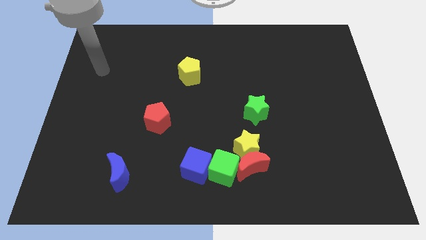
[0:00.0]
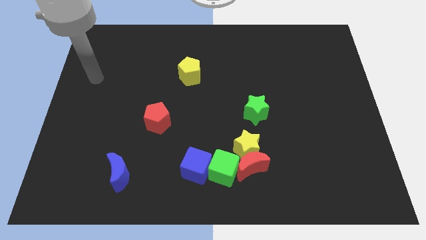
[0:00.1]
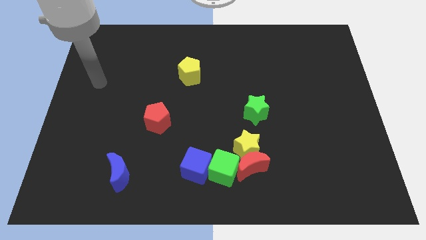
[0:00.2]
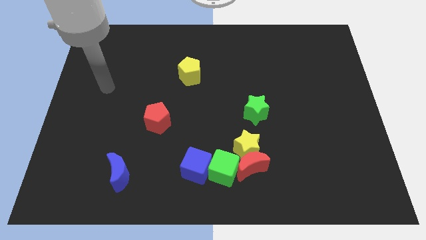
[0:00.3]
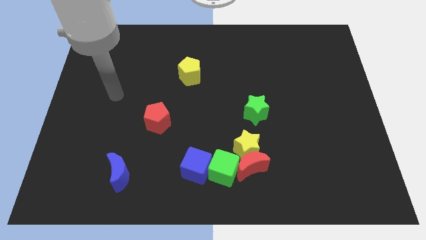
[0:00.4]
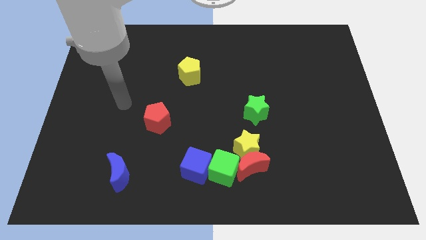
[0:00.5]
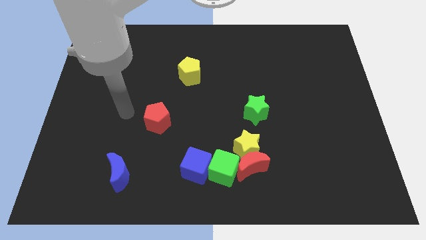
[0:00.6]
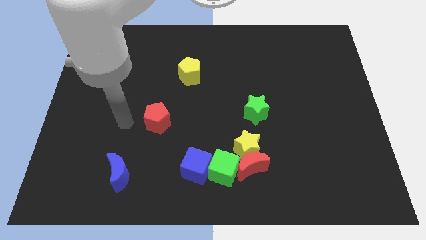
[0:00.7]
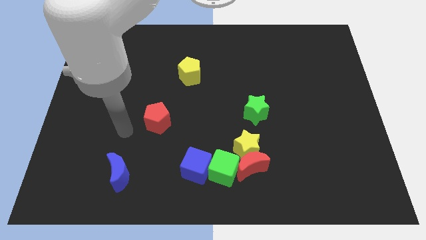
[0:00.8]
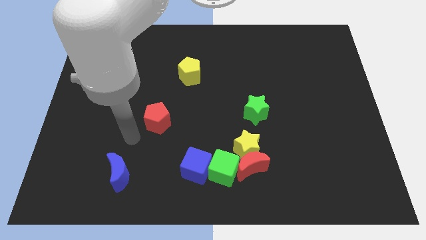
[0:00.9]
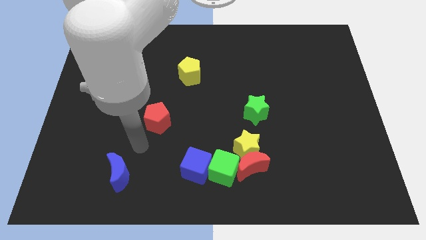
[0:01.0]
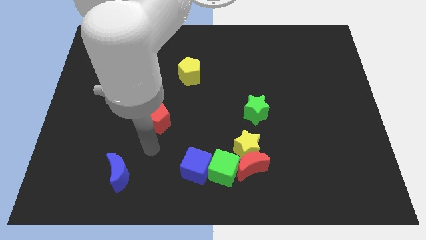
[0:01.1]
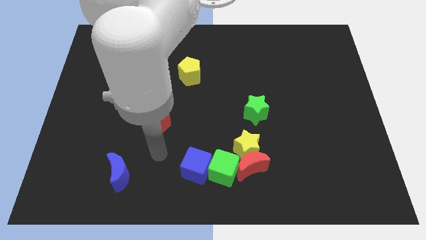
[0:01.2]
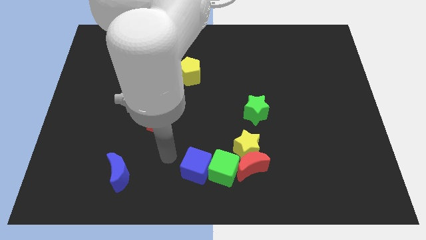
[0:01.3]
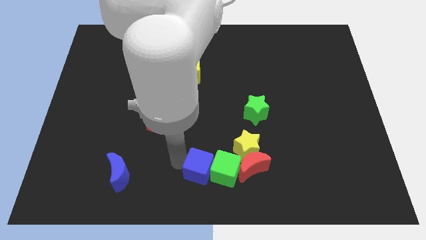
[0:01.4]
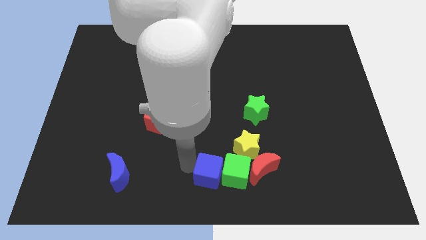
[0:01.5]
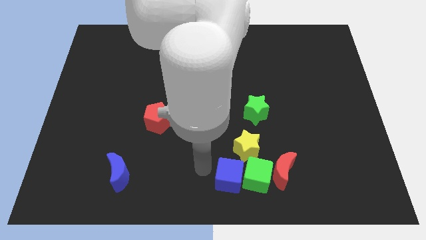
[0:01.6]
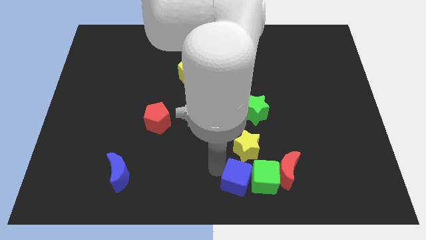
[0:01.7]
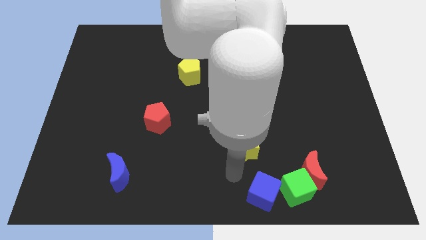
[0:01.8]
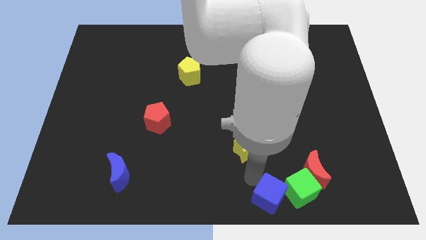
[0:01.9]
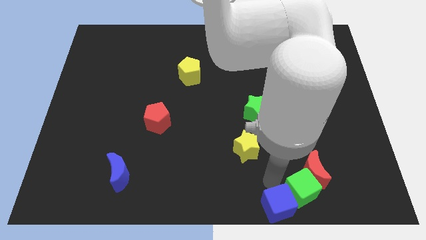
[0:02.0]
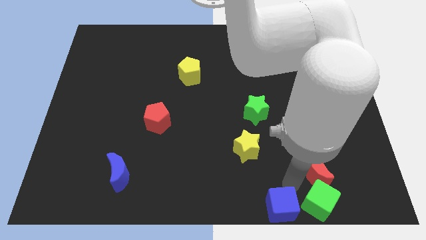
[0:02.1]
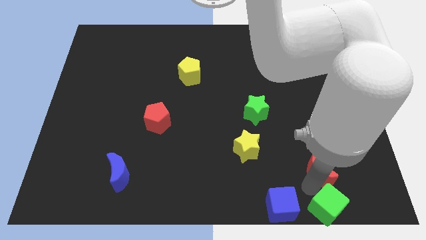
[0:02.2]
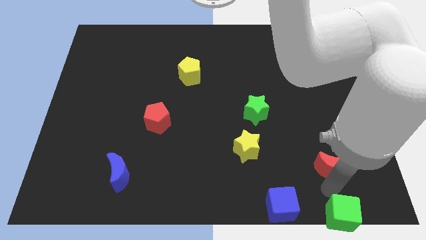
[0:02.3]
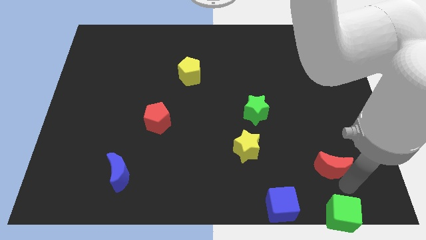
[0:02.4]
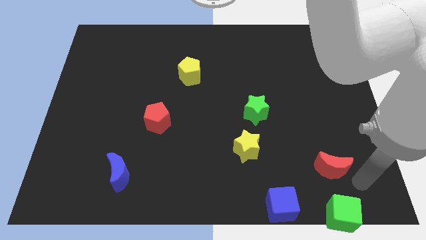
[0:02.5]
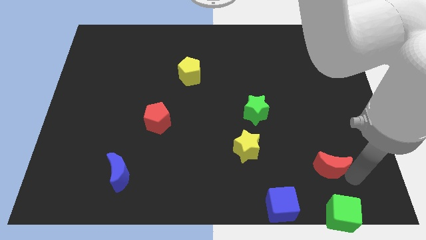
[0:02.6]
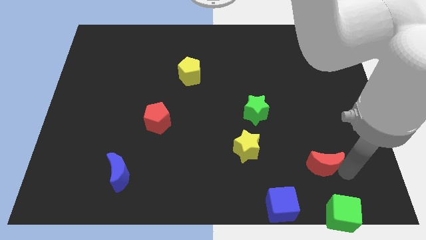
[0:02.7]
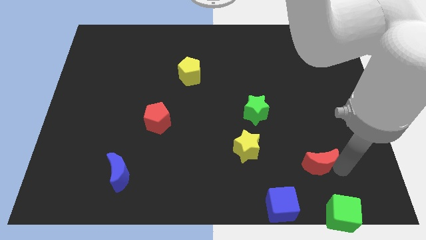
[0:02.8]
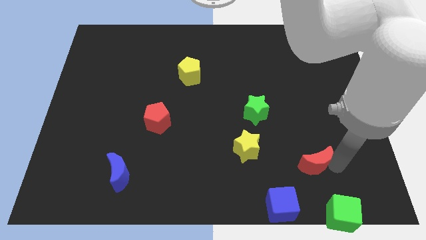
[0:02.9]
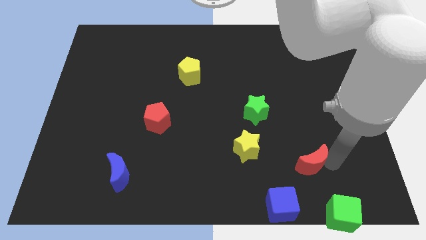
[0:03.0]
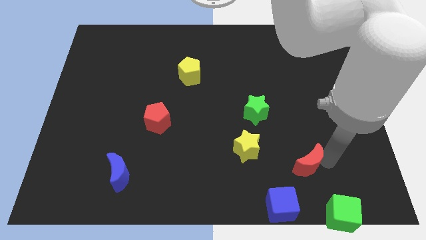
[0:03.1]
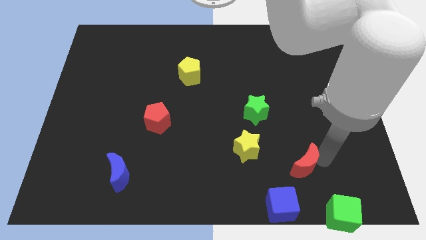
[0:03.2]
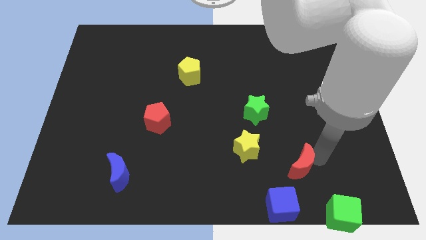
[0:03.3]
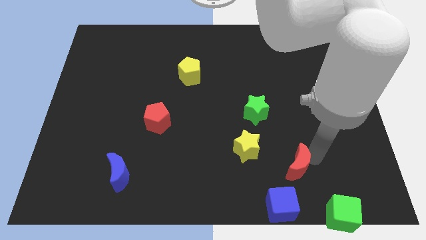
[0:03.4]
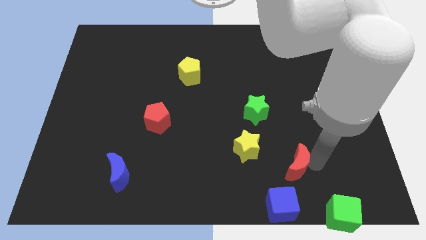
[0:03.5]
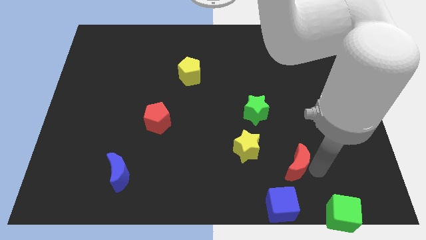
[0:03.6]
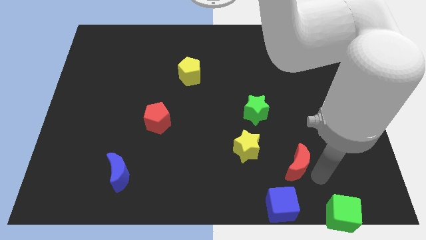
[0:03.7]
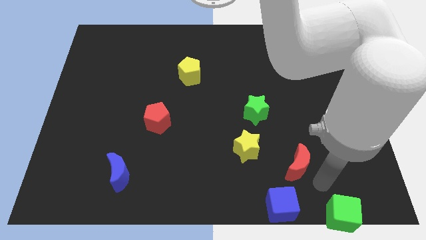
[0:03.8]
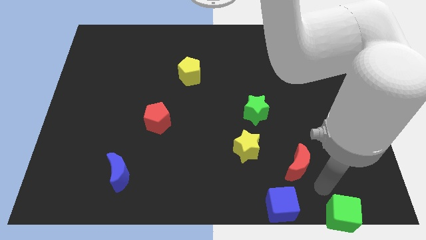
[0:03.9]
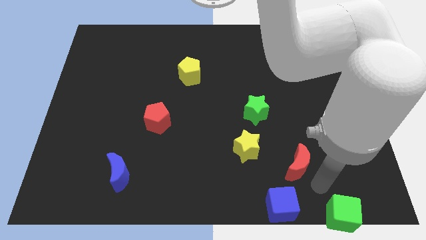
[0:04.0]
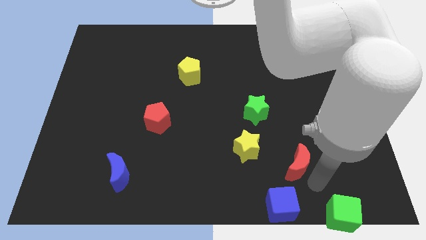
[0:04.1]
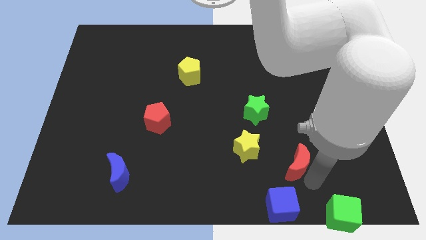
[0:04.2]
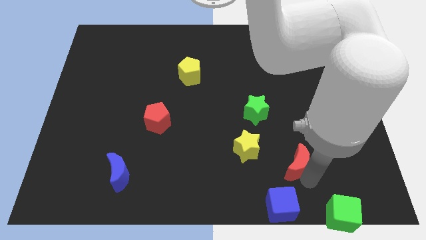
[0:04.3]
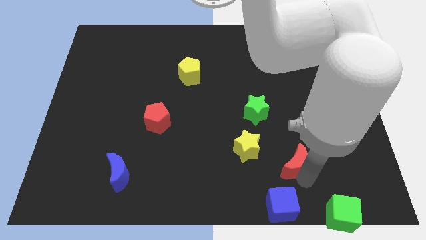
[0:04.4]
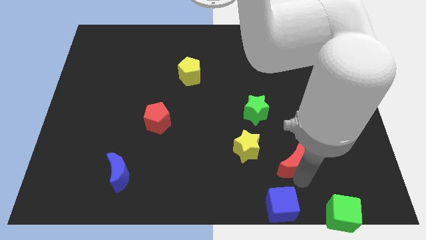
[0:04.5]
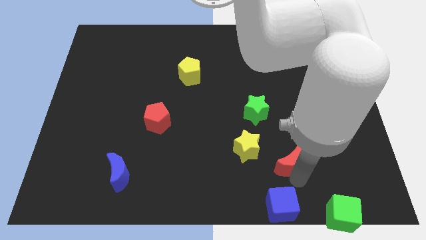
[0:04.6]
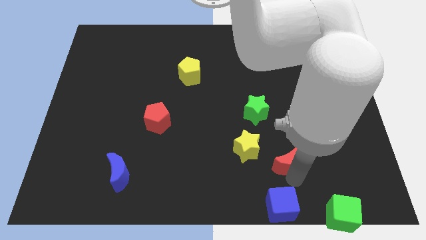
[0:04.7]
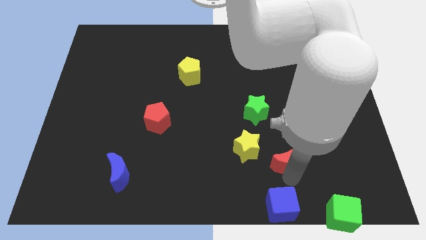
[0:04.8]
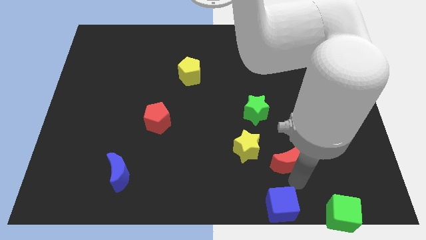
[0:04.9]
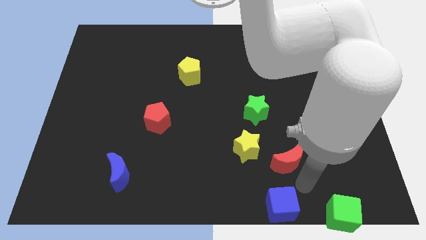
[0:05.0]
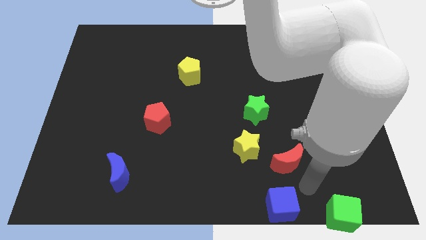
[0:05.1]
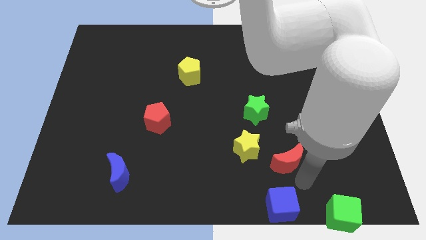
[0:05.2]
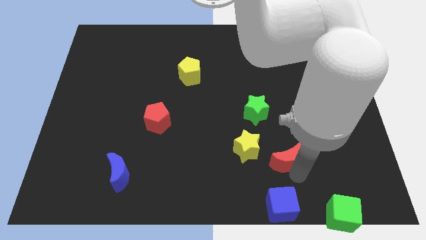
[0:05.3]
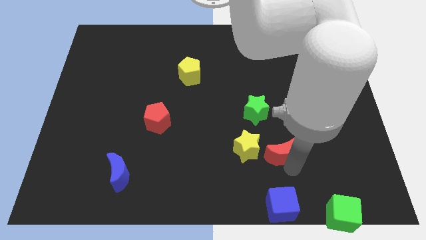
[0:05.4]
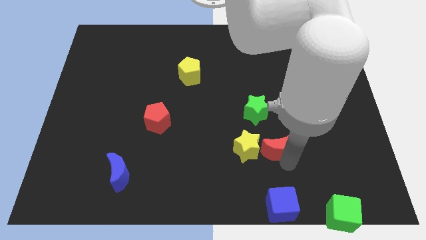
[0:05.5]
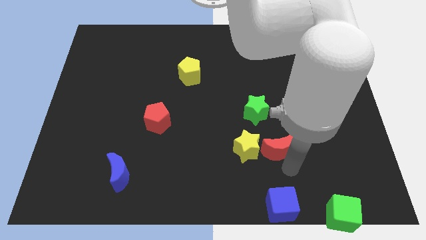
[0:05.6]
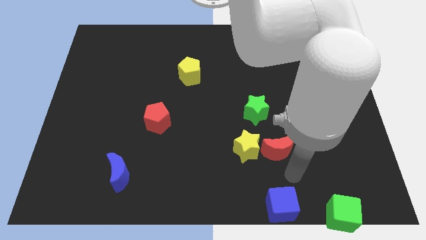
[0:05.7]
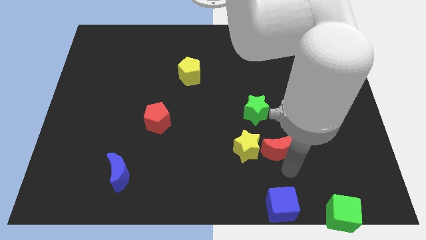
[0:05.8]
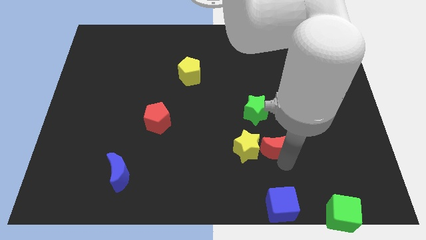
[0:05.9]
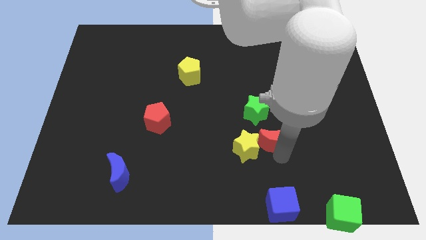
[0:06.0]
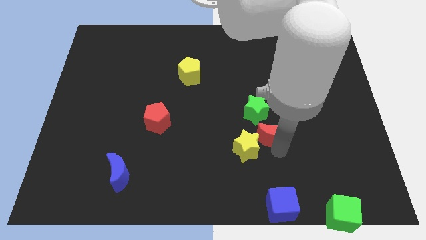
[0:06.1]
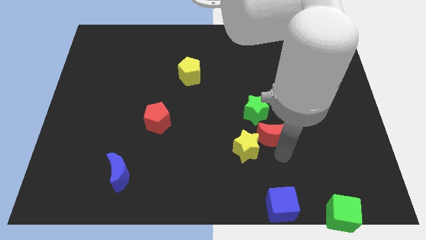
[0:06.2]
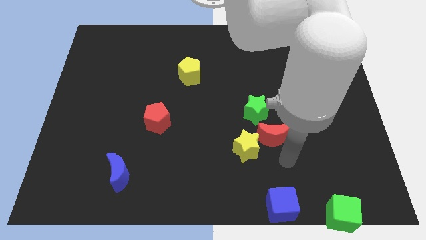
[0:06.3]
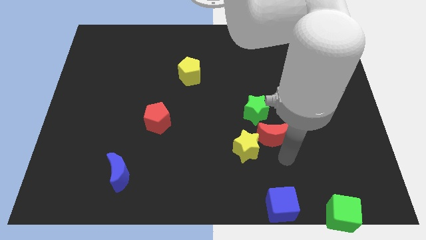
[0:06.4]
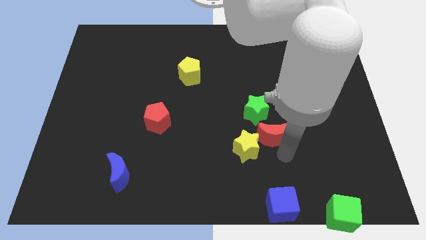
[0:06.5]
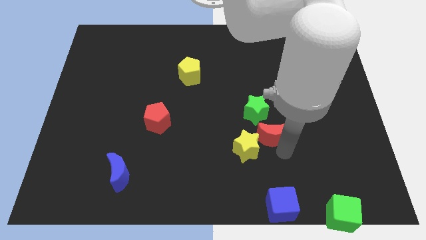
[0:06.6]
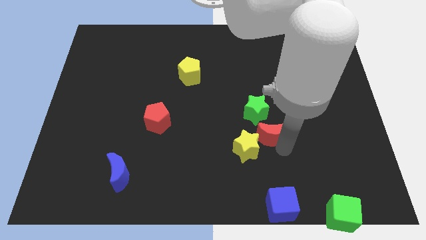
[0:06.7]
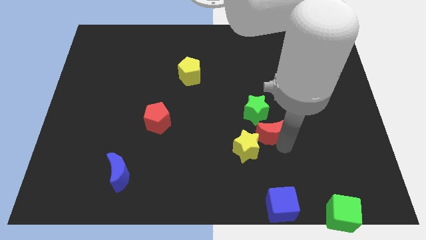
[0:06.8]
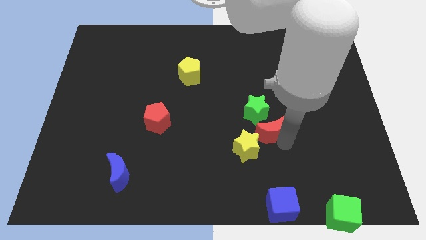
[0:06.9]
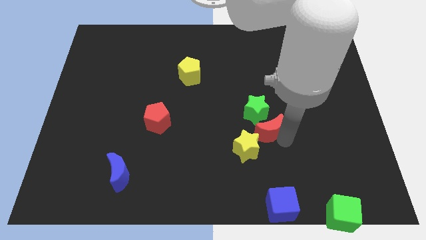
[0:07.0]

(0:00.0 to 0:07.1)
slide the red moon close to the green star

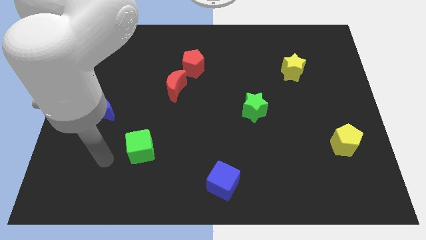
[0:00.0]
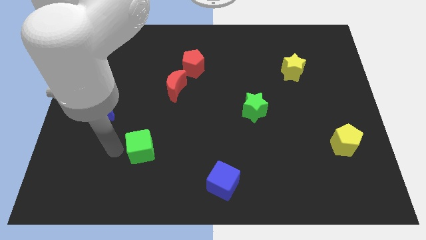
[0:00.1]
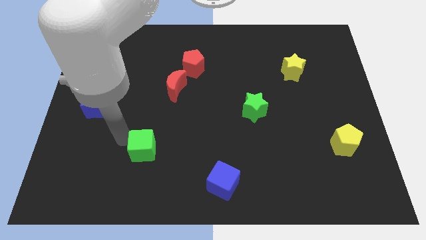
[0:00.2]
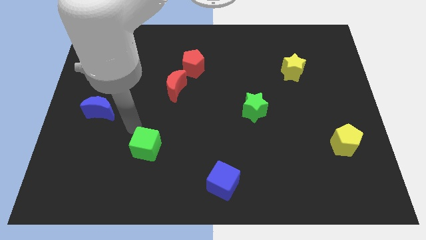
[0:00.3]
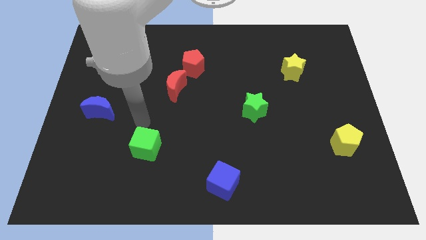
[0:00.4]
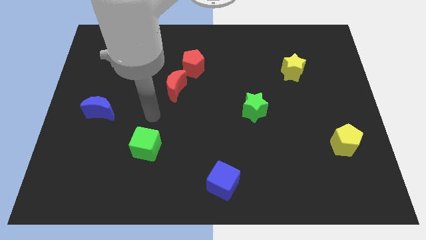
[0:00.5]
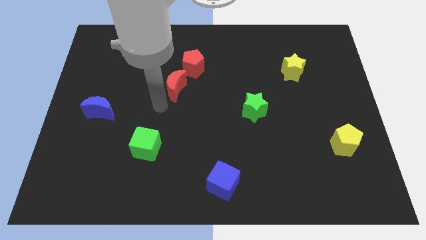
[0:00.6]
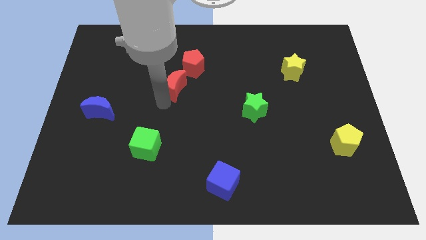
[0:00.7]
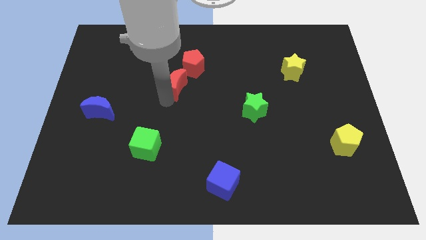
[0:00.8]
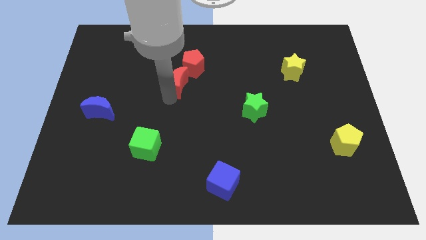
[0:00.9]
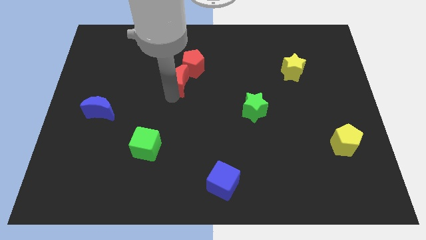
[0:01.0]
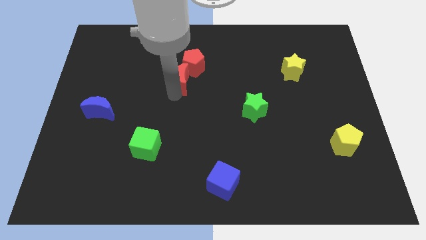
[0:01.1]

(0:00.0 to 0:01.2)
slide the red moon to the red pentagon
